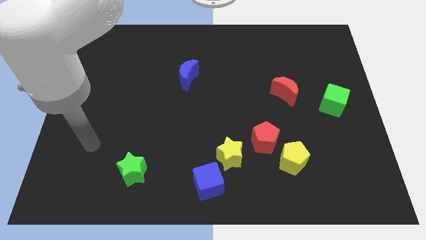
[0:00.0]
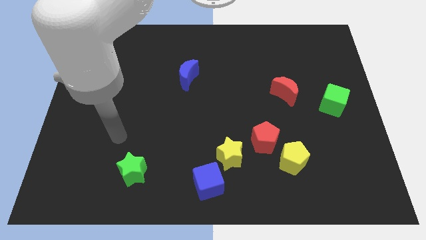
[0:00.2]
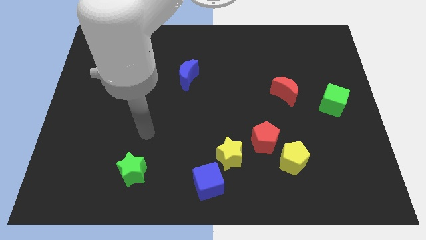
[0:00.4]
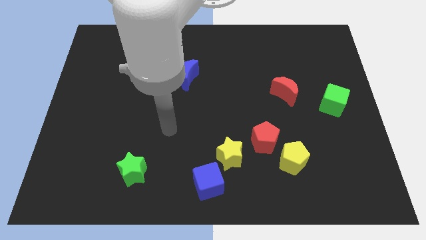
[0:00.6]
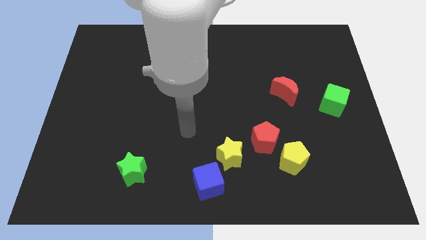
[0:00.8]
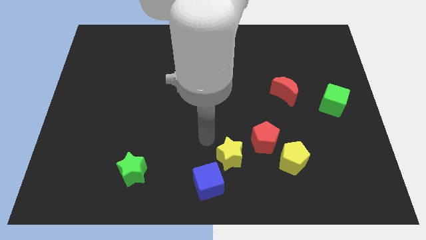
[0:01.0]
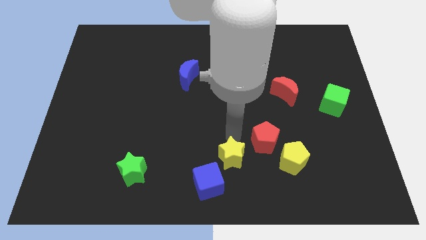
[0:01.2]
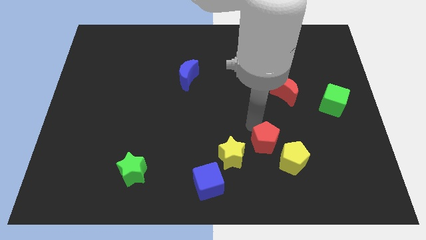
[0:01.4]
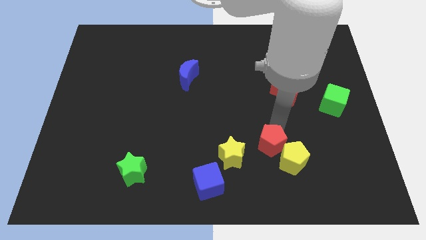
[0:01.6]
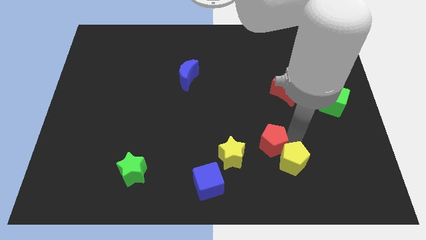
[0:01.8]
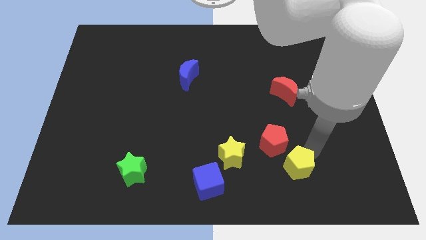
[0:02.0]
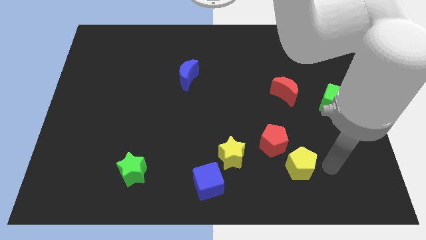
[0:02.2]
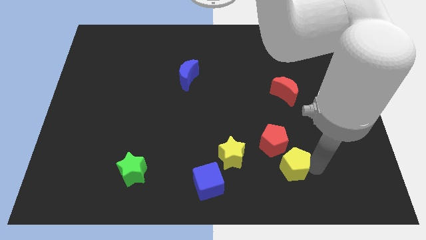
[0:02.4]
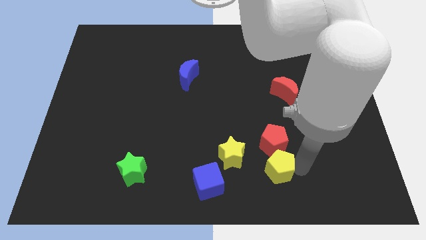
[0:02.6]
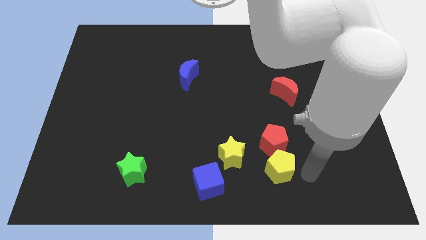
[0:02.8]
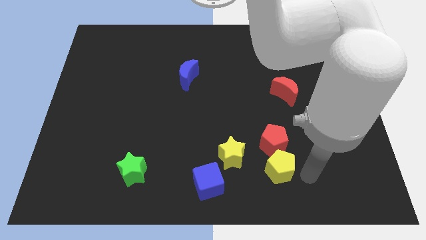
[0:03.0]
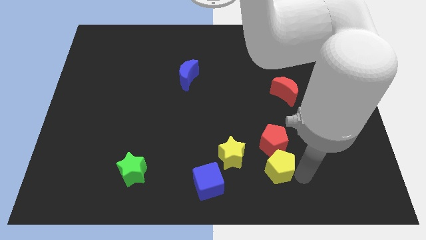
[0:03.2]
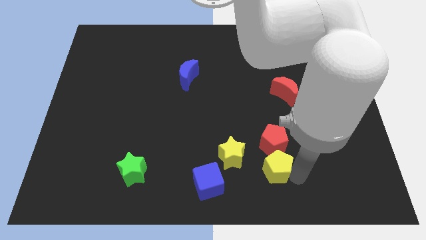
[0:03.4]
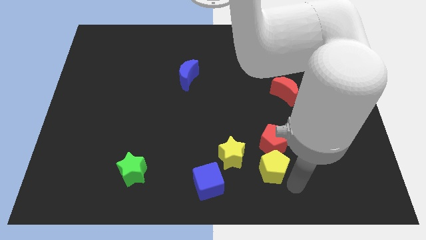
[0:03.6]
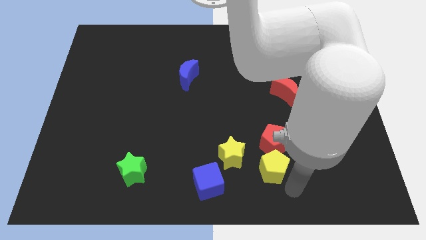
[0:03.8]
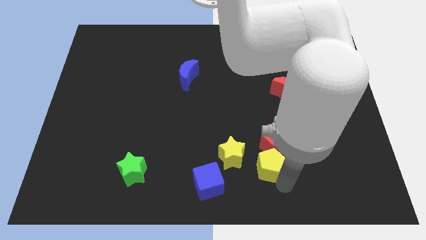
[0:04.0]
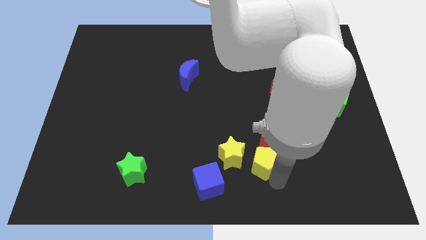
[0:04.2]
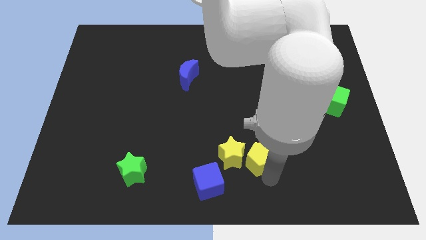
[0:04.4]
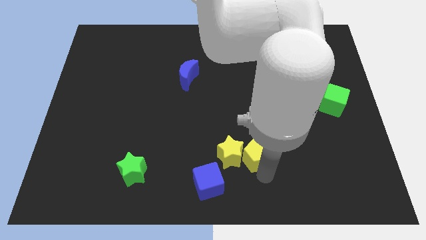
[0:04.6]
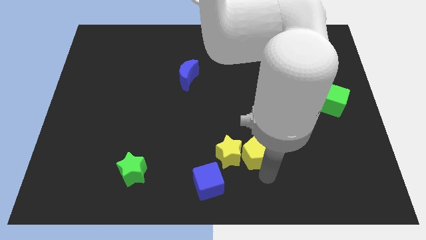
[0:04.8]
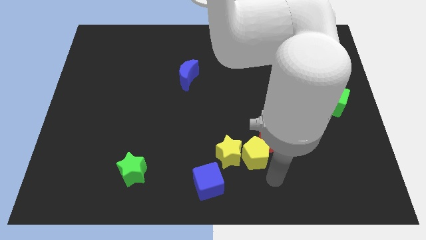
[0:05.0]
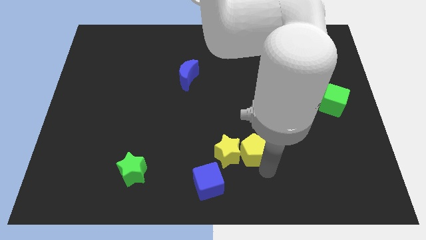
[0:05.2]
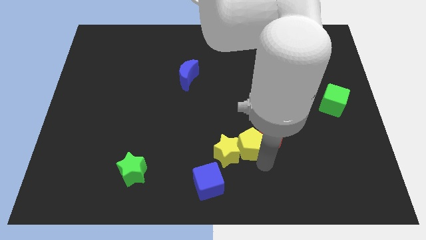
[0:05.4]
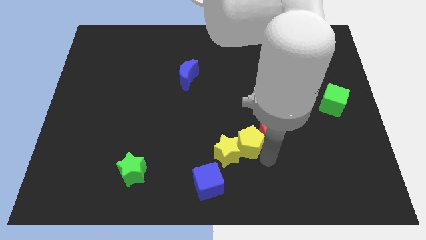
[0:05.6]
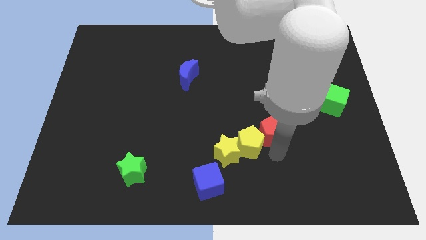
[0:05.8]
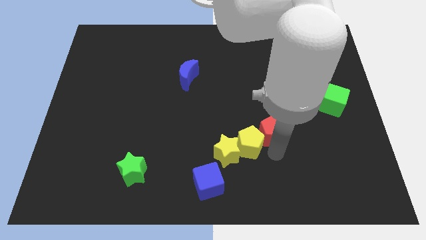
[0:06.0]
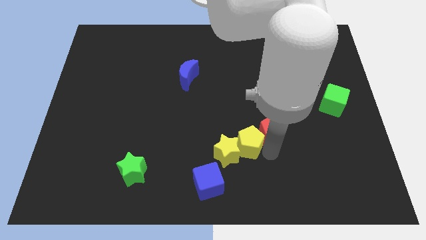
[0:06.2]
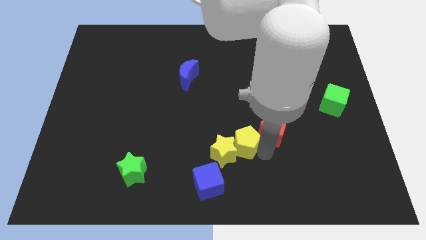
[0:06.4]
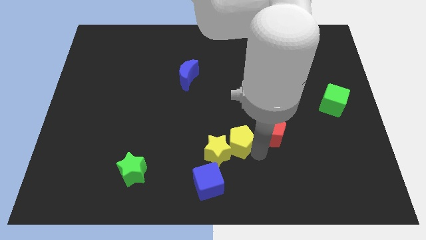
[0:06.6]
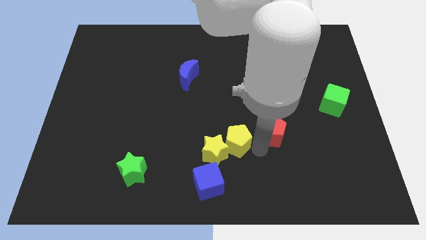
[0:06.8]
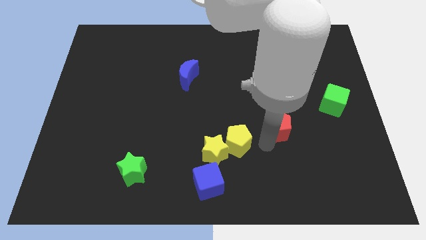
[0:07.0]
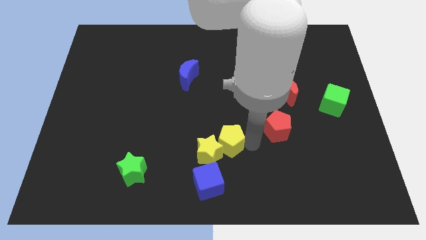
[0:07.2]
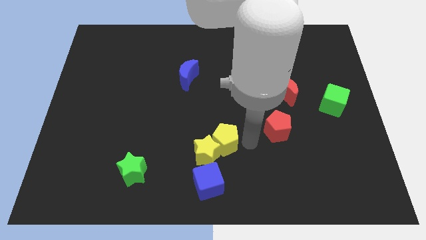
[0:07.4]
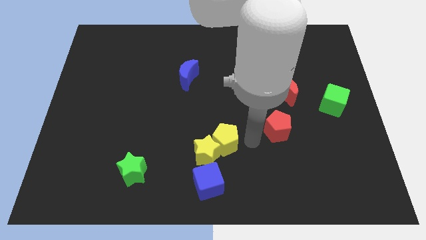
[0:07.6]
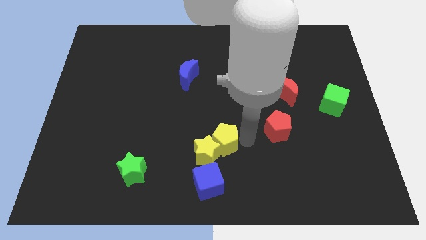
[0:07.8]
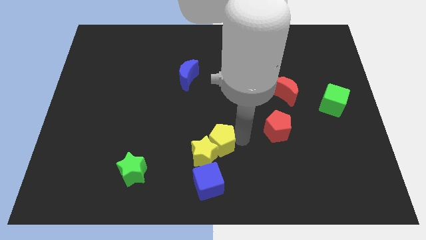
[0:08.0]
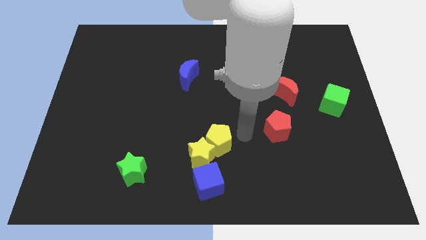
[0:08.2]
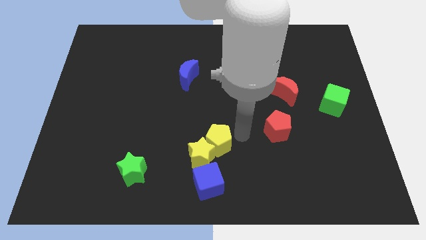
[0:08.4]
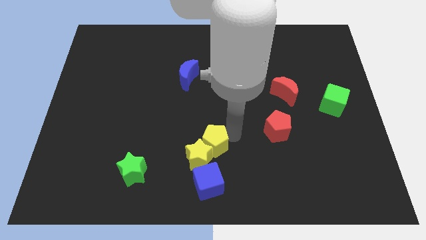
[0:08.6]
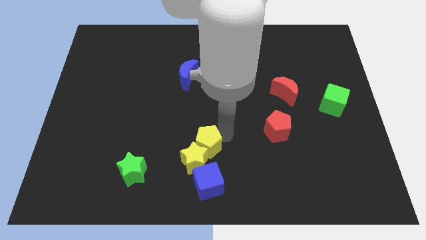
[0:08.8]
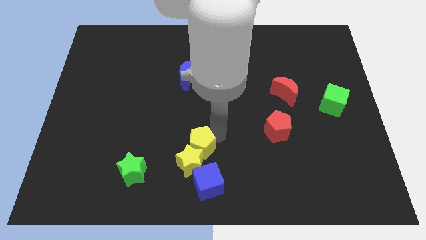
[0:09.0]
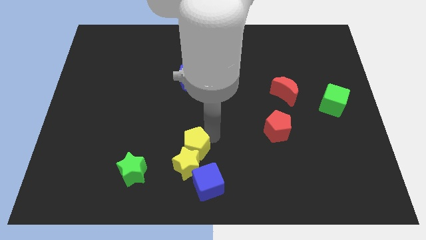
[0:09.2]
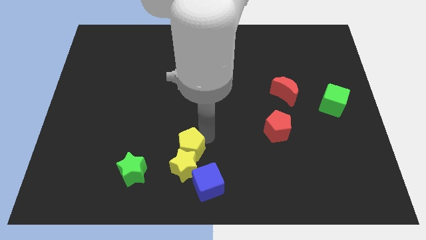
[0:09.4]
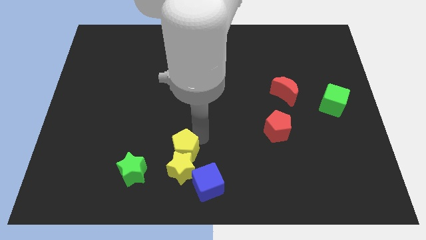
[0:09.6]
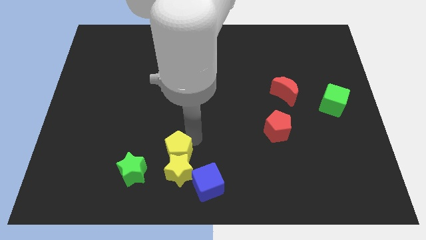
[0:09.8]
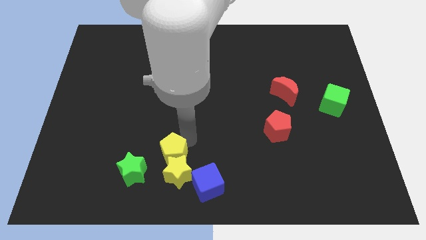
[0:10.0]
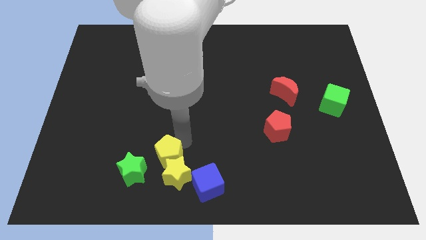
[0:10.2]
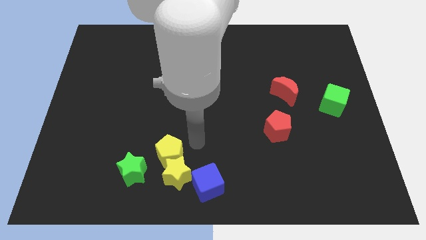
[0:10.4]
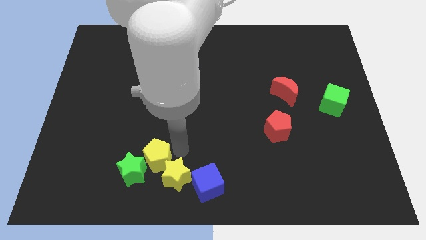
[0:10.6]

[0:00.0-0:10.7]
slide the yellow pentagon next to the green star

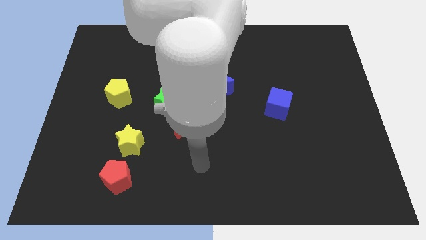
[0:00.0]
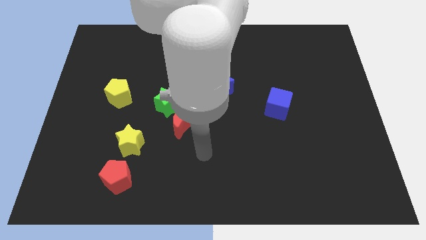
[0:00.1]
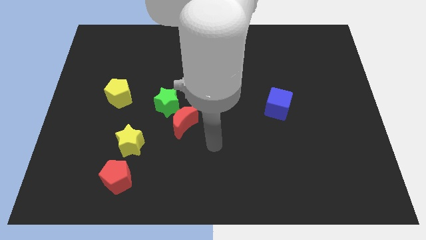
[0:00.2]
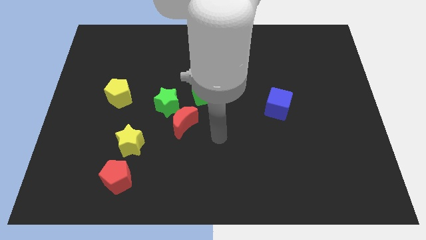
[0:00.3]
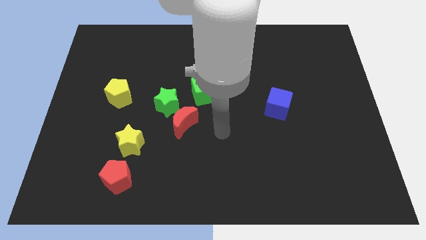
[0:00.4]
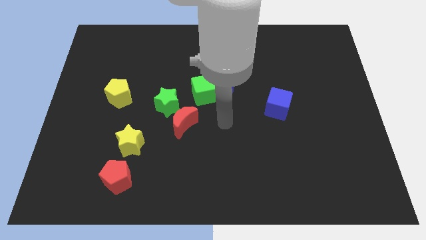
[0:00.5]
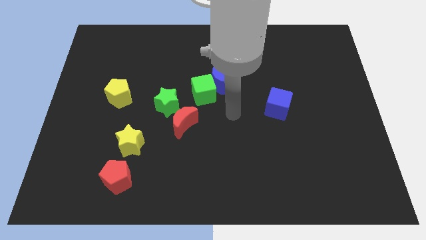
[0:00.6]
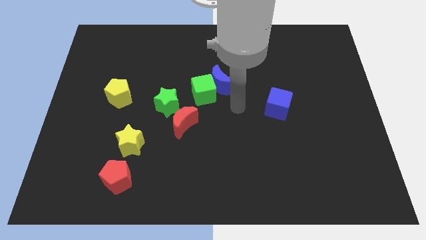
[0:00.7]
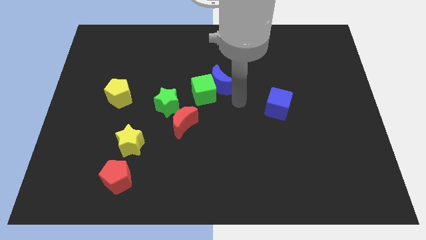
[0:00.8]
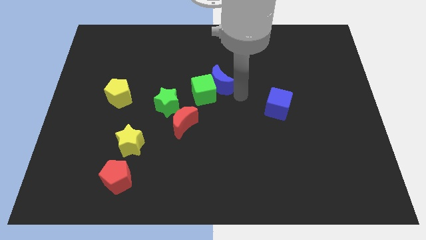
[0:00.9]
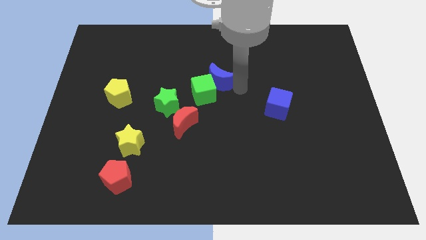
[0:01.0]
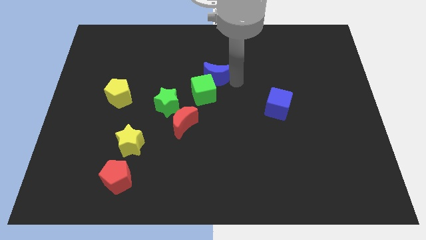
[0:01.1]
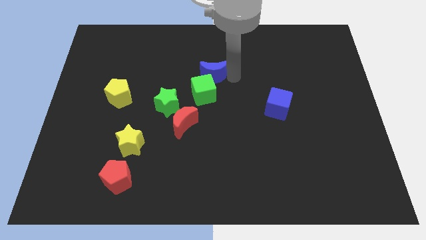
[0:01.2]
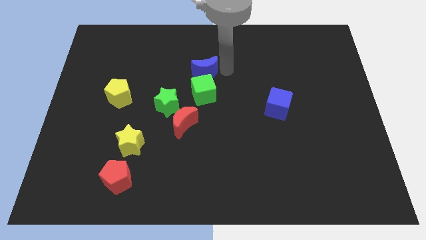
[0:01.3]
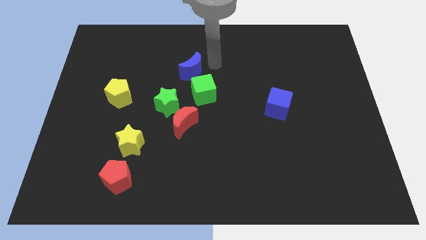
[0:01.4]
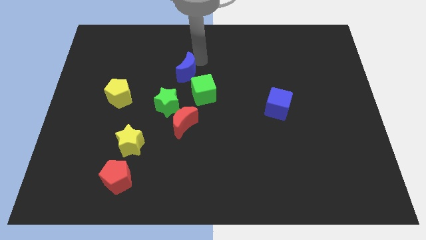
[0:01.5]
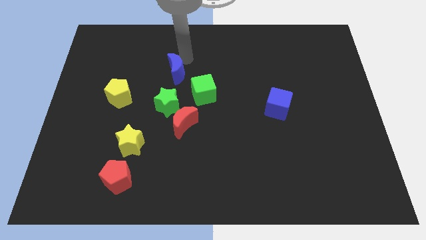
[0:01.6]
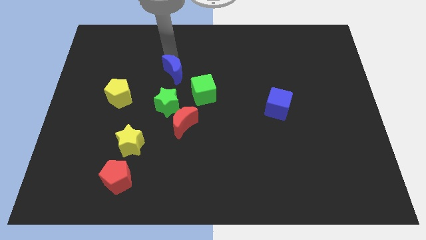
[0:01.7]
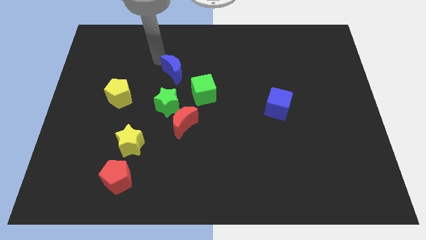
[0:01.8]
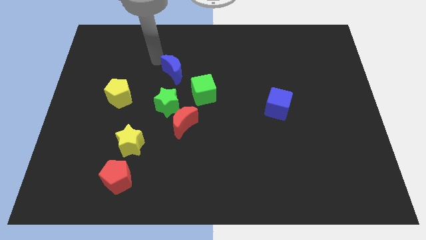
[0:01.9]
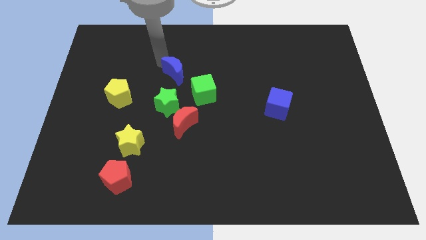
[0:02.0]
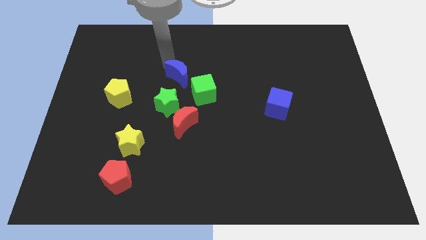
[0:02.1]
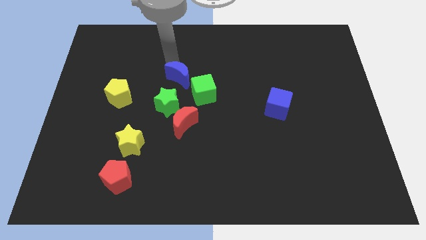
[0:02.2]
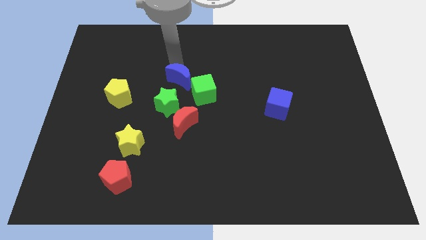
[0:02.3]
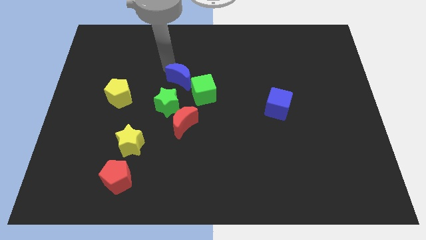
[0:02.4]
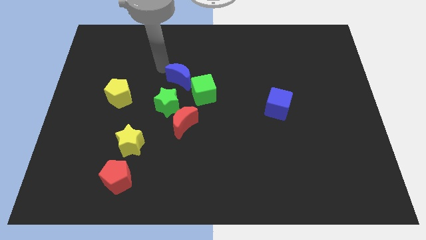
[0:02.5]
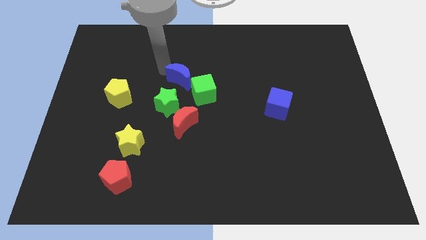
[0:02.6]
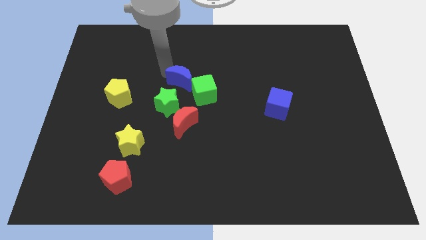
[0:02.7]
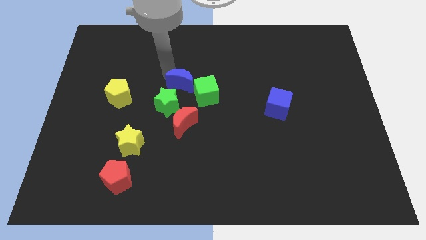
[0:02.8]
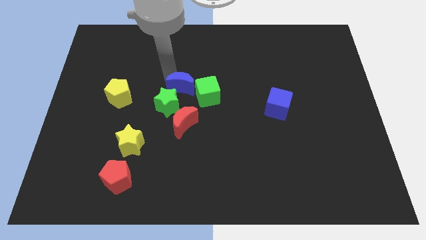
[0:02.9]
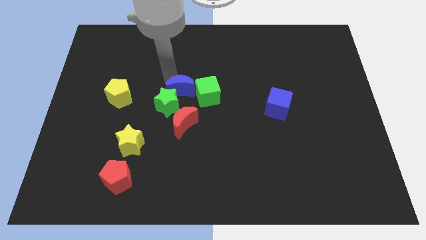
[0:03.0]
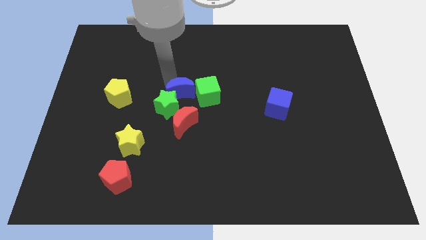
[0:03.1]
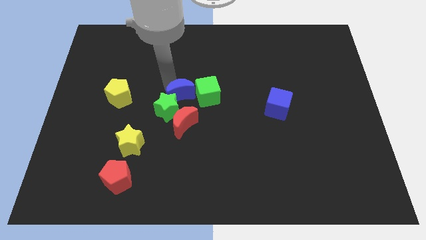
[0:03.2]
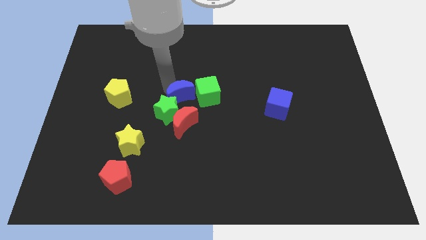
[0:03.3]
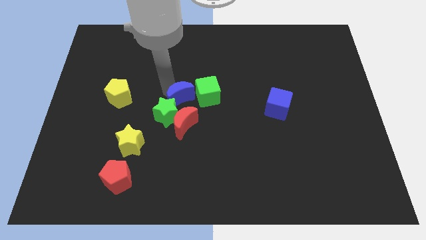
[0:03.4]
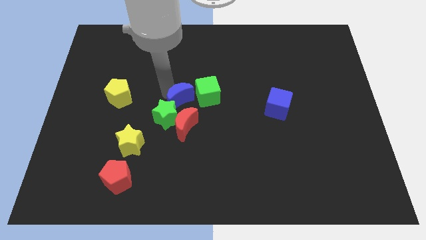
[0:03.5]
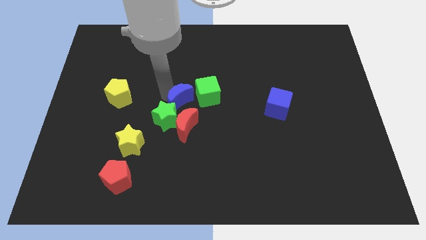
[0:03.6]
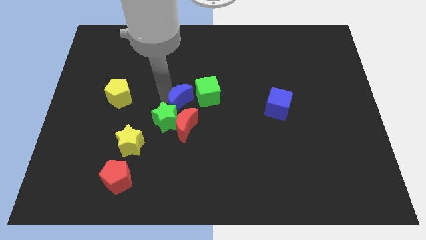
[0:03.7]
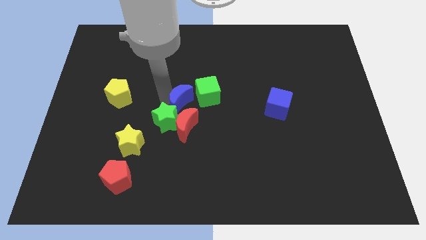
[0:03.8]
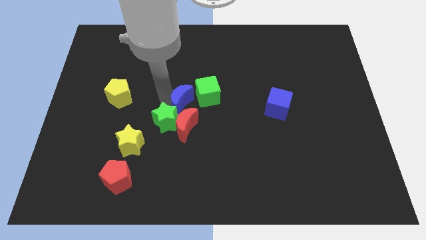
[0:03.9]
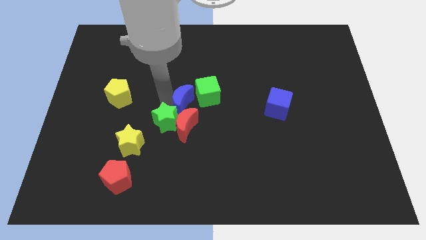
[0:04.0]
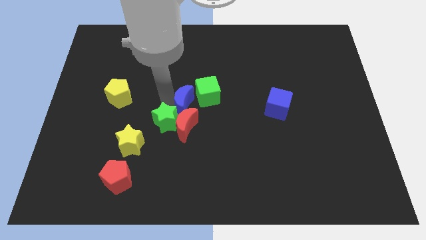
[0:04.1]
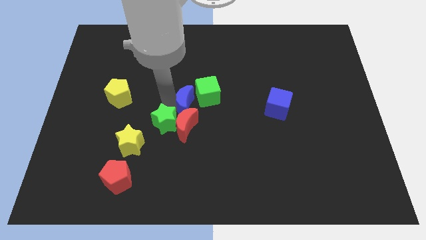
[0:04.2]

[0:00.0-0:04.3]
move the blue moon next to the red moon
